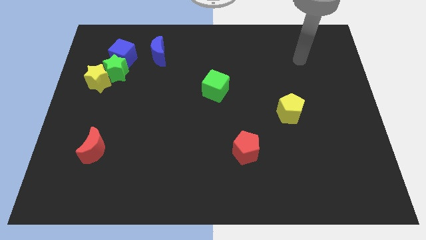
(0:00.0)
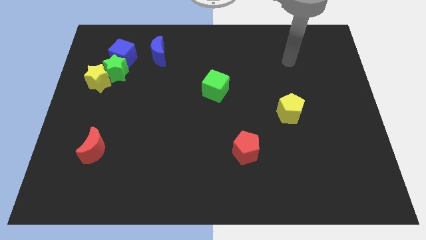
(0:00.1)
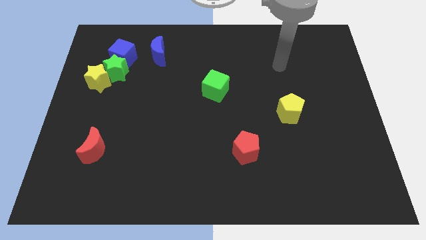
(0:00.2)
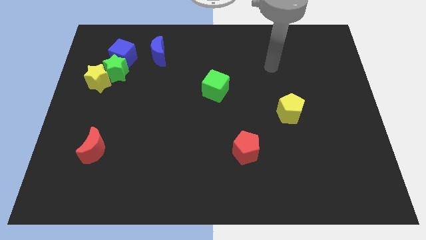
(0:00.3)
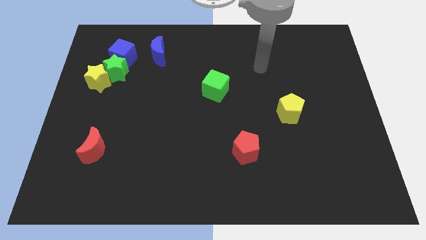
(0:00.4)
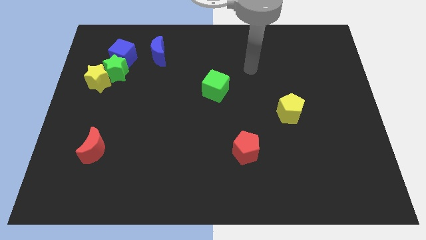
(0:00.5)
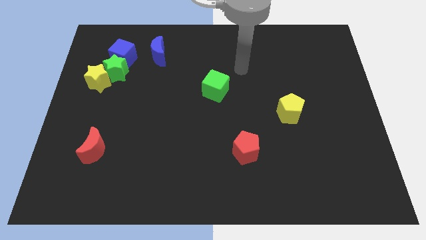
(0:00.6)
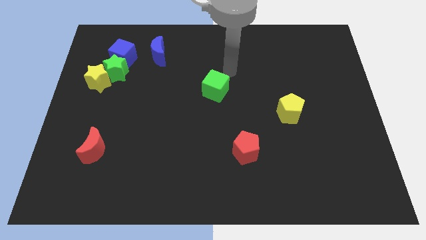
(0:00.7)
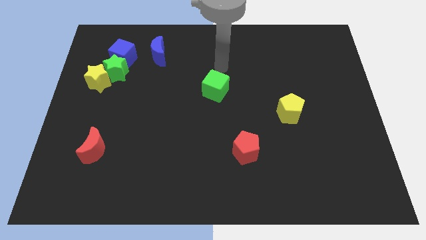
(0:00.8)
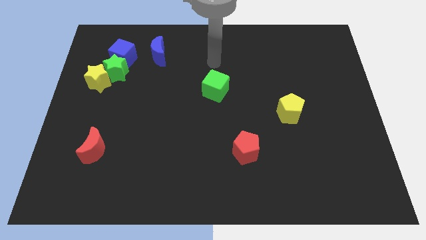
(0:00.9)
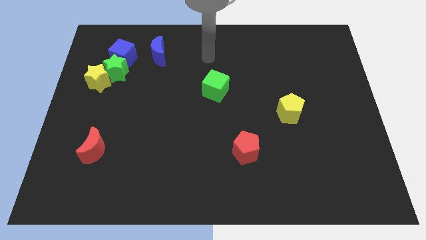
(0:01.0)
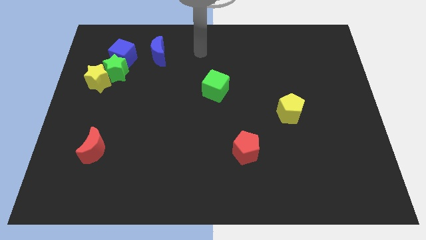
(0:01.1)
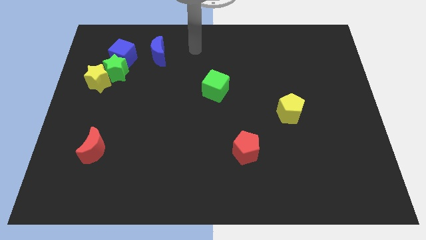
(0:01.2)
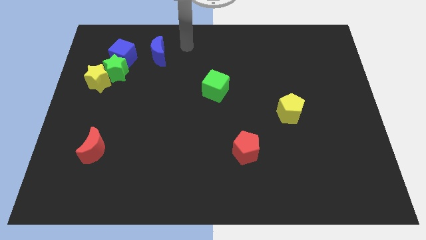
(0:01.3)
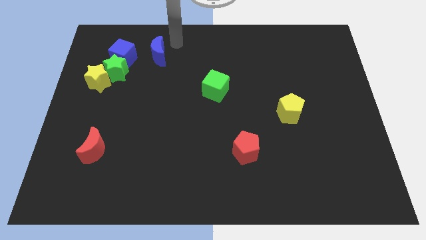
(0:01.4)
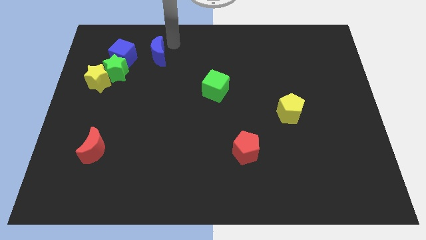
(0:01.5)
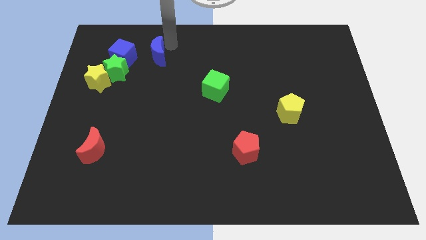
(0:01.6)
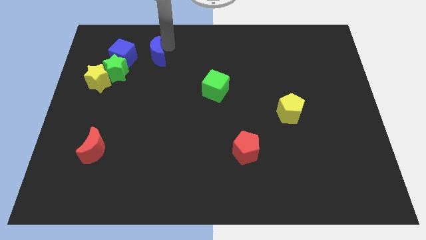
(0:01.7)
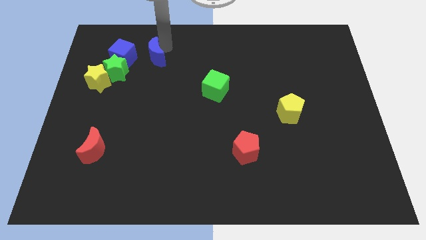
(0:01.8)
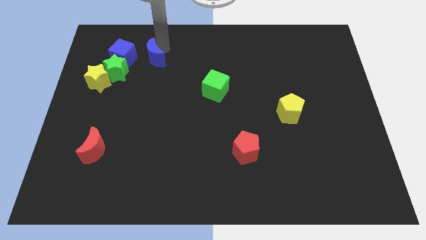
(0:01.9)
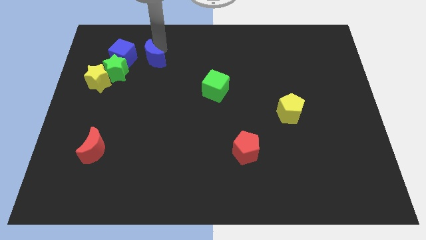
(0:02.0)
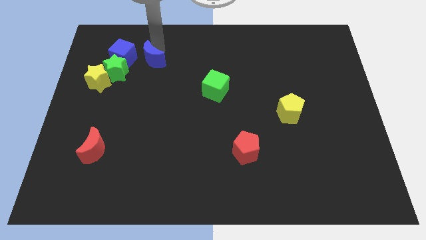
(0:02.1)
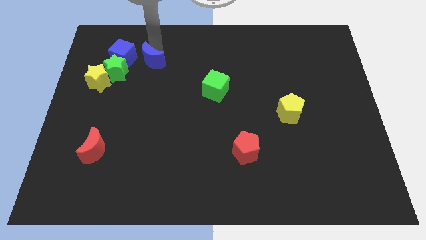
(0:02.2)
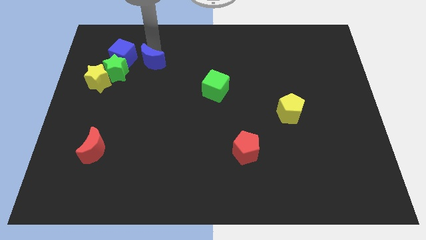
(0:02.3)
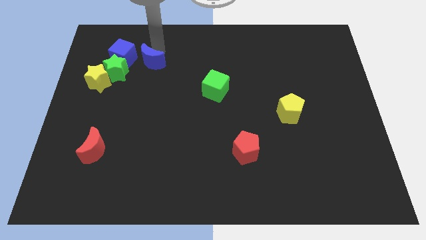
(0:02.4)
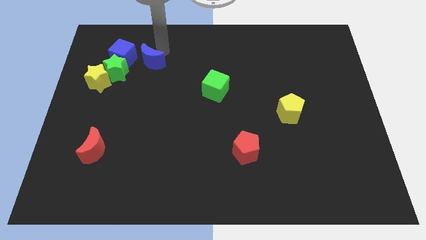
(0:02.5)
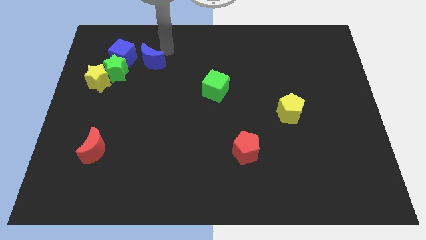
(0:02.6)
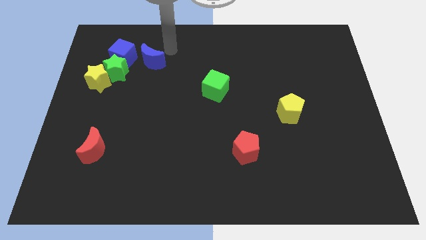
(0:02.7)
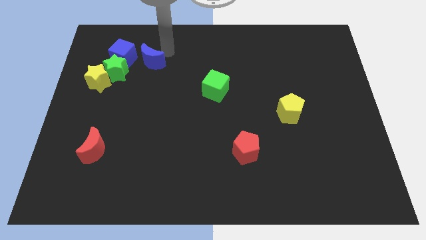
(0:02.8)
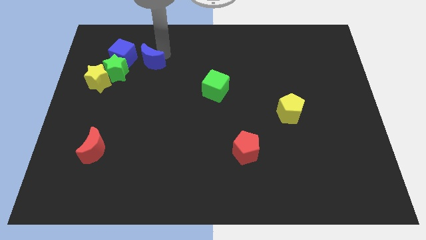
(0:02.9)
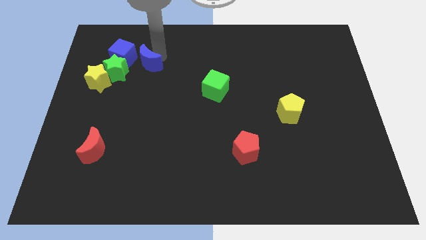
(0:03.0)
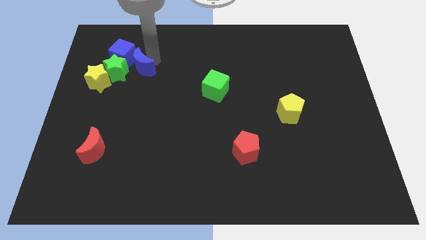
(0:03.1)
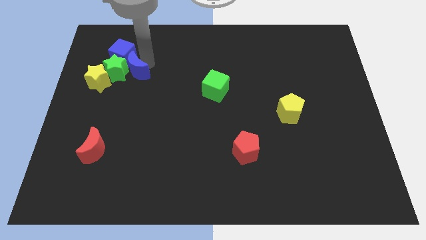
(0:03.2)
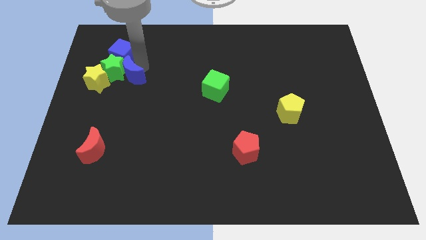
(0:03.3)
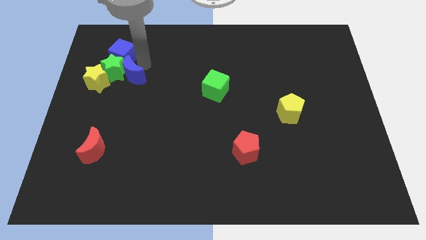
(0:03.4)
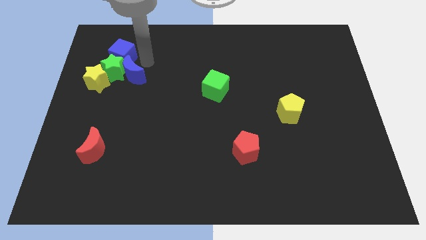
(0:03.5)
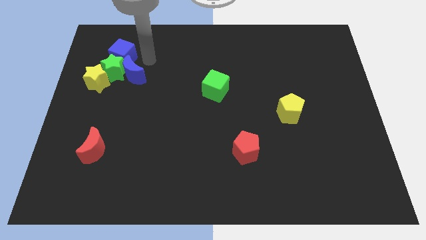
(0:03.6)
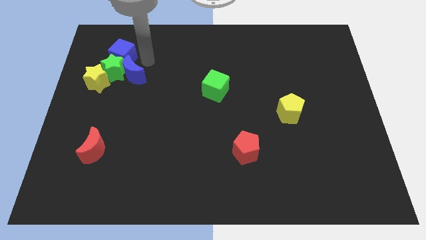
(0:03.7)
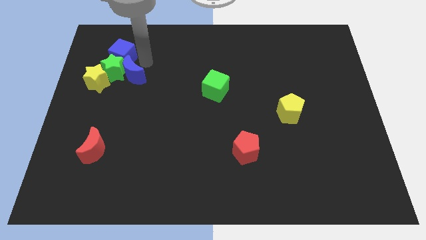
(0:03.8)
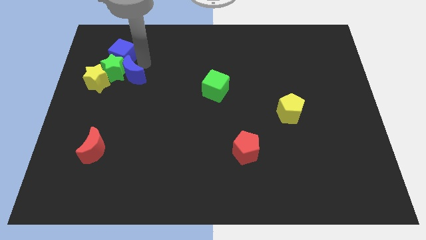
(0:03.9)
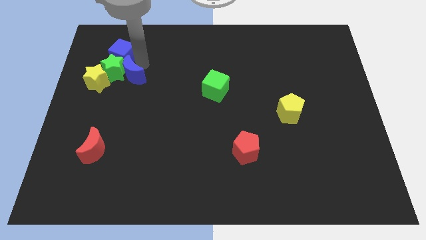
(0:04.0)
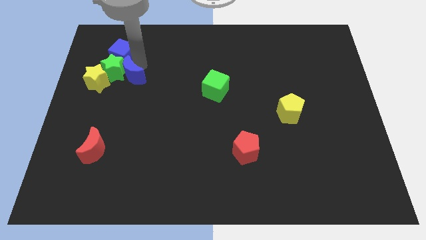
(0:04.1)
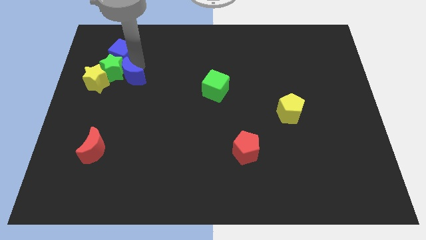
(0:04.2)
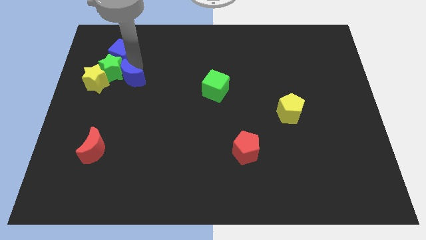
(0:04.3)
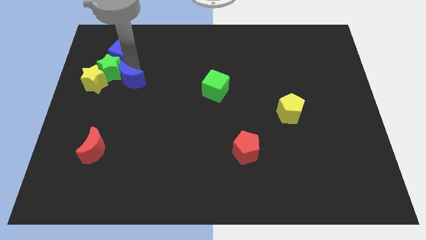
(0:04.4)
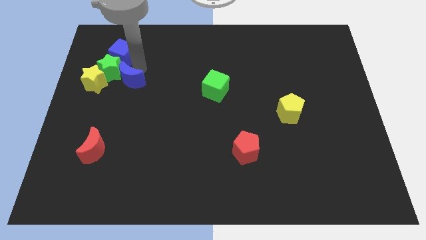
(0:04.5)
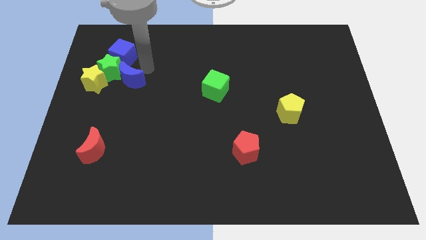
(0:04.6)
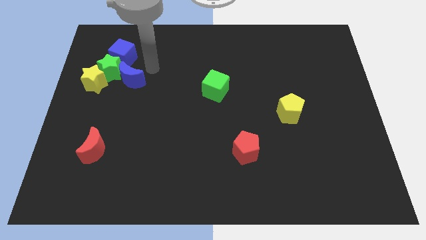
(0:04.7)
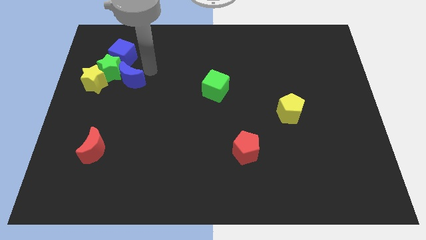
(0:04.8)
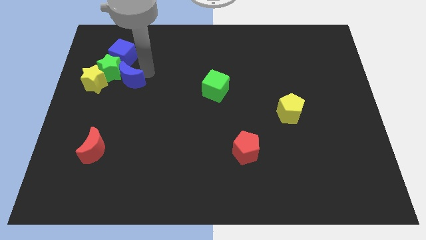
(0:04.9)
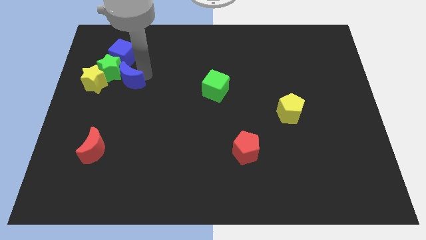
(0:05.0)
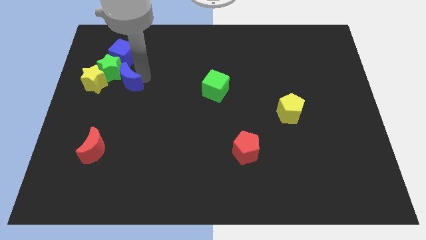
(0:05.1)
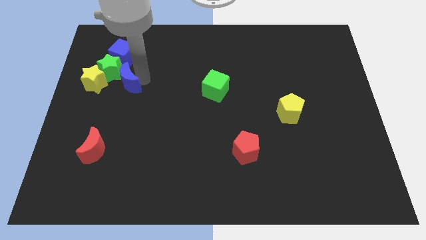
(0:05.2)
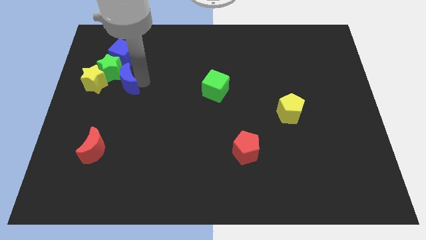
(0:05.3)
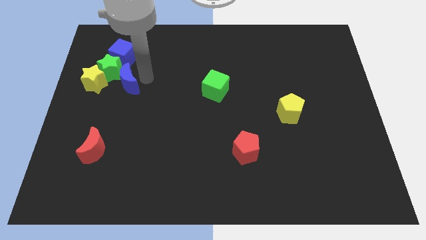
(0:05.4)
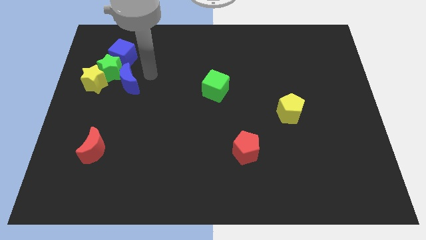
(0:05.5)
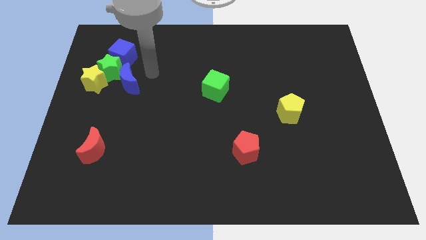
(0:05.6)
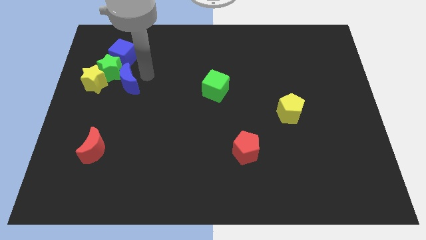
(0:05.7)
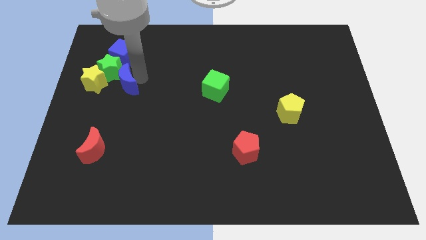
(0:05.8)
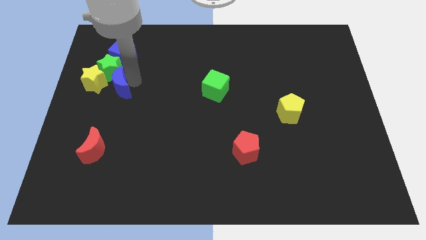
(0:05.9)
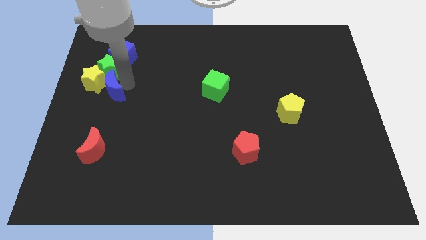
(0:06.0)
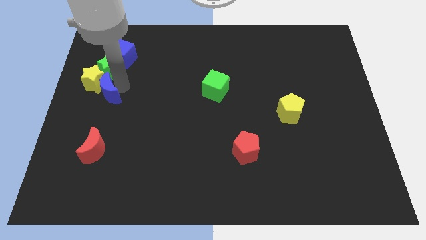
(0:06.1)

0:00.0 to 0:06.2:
move the blue moon to the bottom side of the yellow star

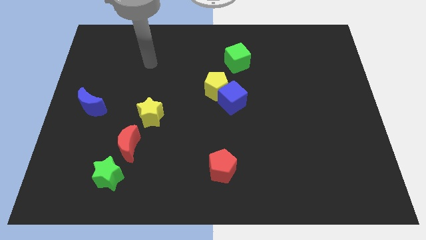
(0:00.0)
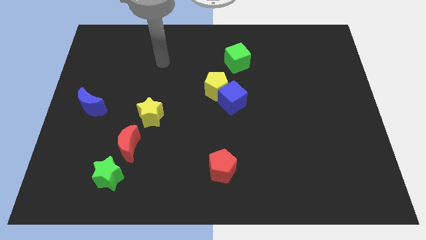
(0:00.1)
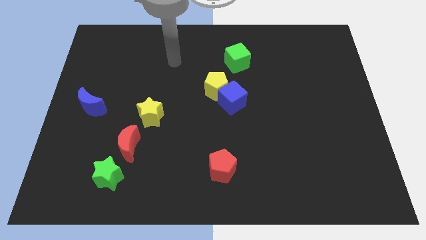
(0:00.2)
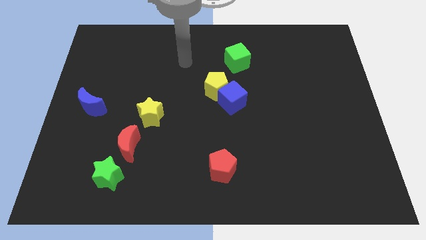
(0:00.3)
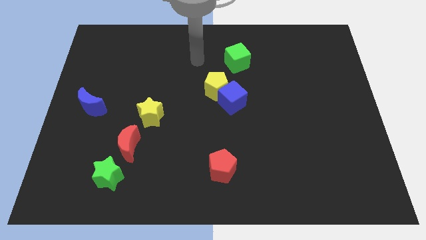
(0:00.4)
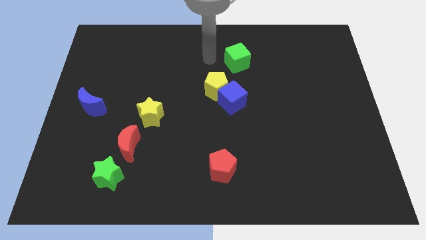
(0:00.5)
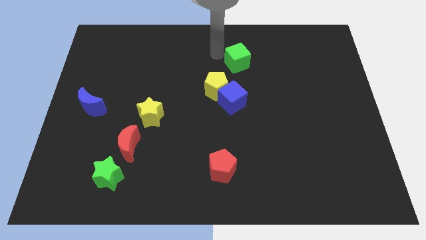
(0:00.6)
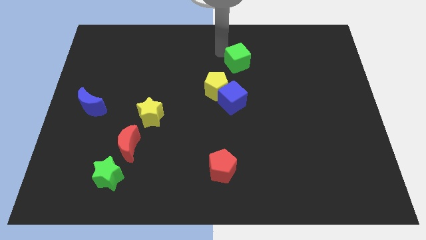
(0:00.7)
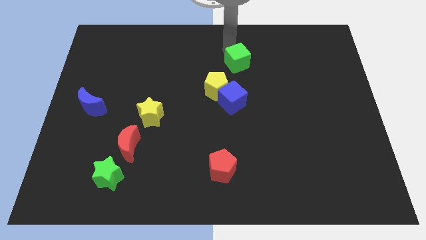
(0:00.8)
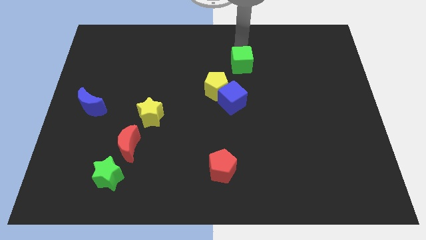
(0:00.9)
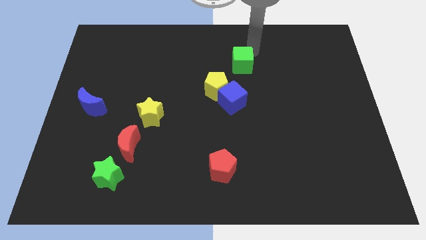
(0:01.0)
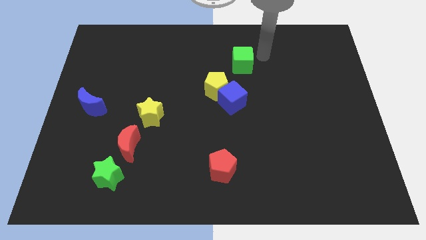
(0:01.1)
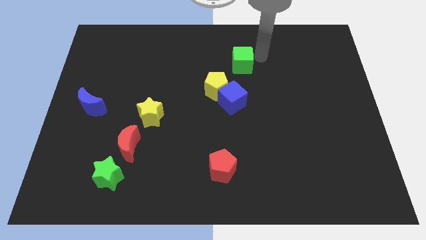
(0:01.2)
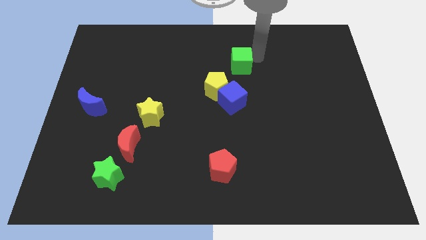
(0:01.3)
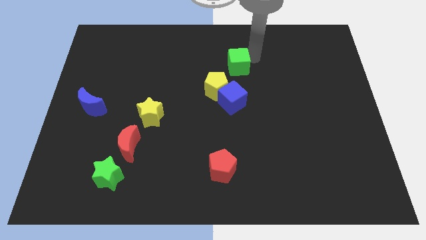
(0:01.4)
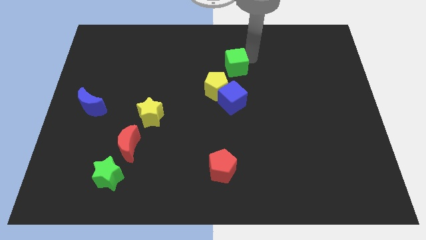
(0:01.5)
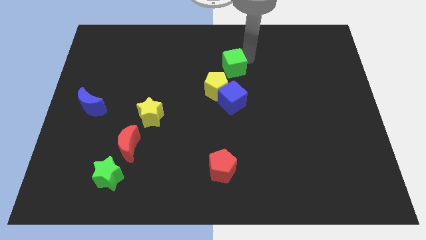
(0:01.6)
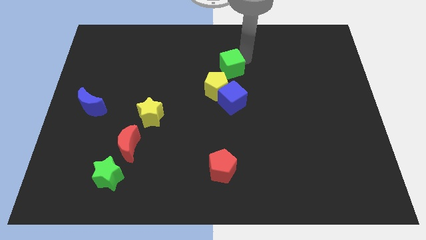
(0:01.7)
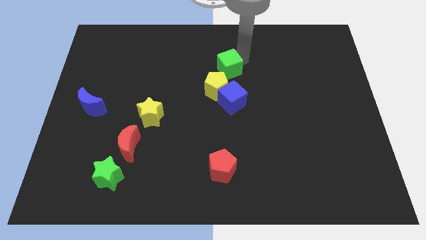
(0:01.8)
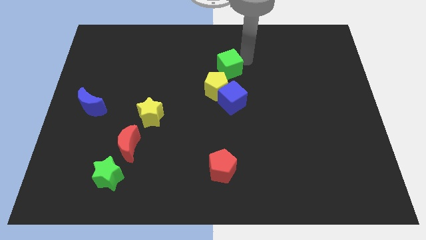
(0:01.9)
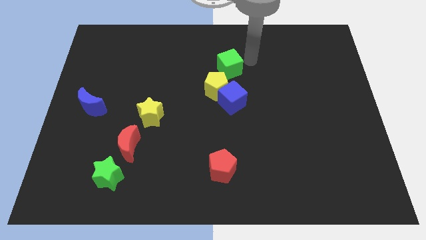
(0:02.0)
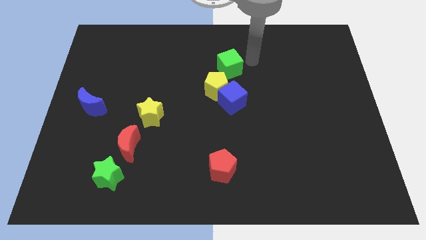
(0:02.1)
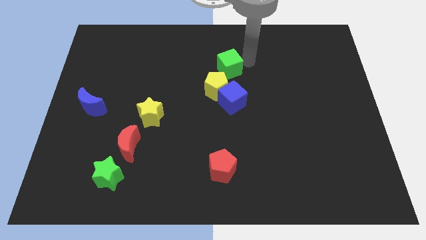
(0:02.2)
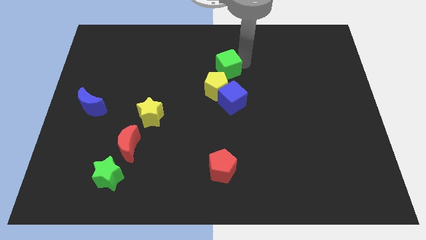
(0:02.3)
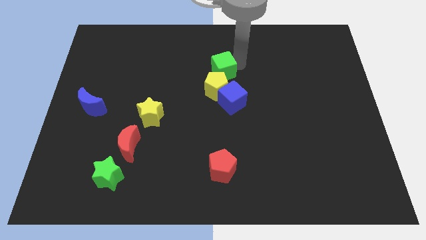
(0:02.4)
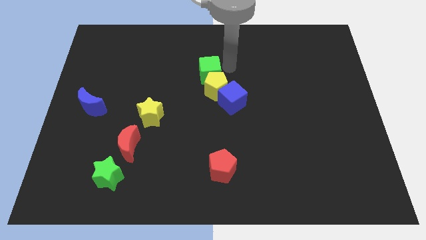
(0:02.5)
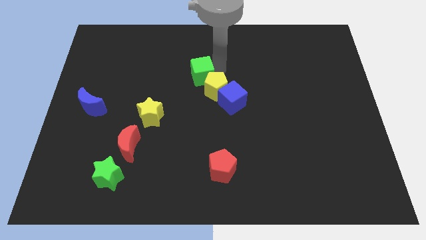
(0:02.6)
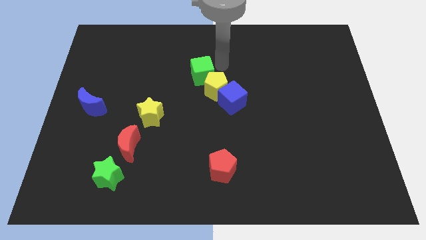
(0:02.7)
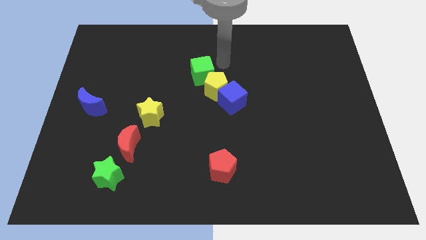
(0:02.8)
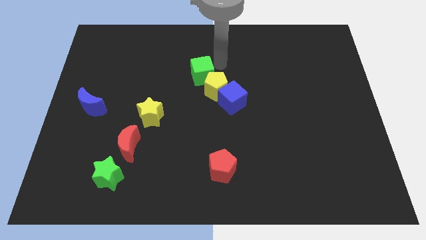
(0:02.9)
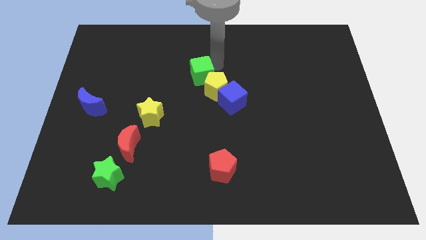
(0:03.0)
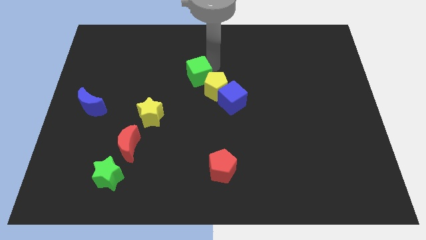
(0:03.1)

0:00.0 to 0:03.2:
put the green cube to the left of the yellow pentagon
